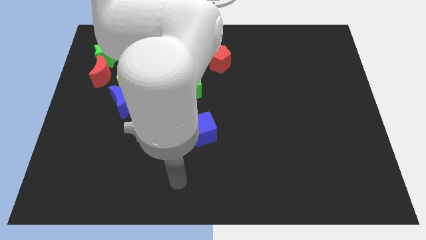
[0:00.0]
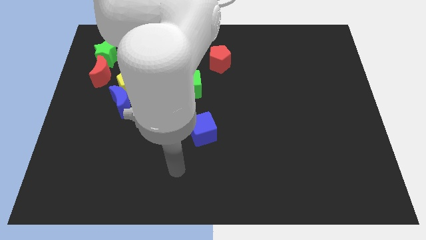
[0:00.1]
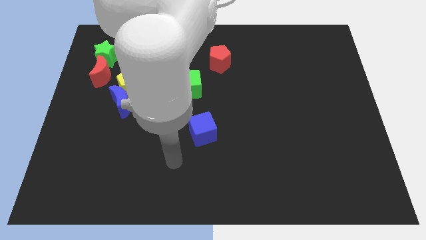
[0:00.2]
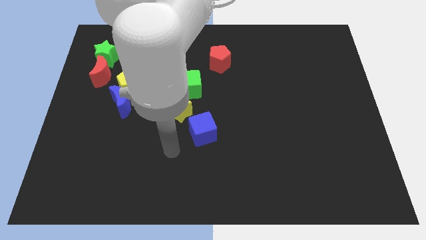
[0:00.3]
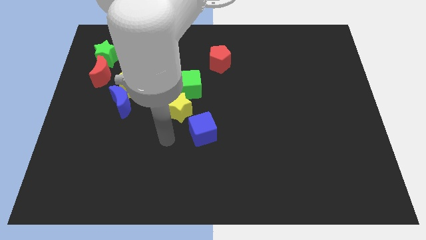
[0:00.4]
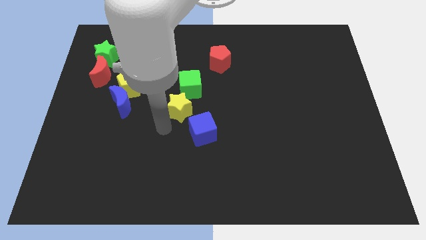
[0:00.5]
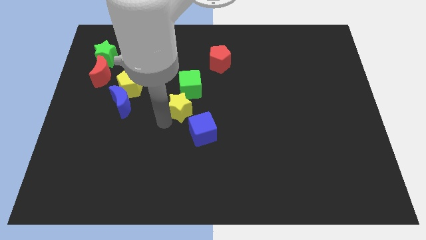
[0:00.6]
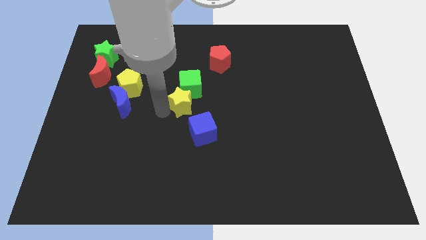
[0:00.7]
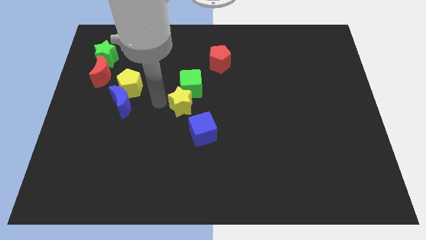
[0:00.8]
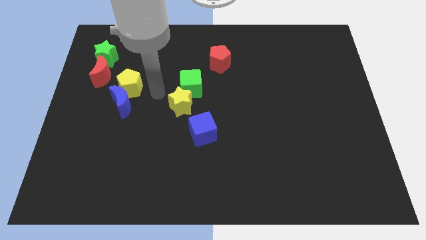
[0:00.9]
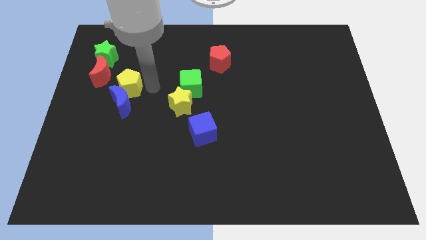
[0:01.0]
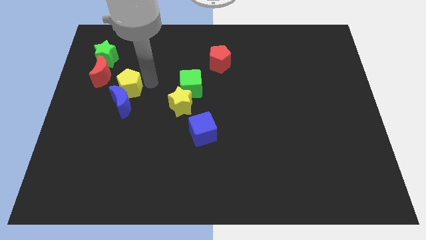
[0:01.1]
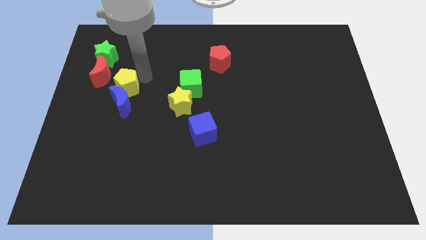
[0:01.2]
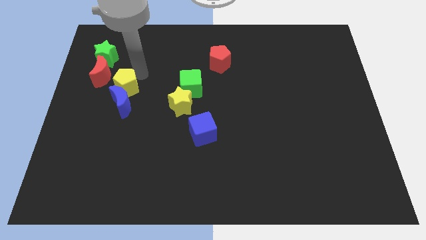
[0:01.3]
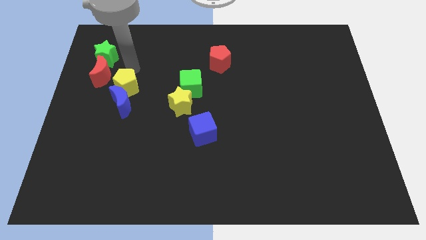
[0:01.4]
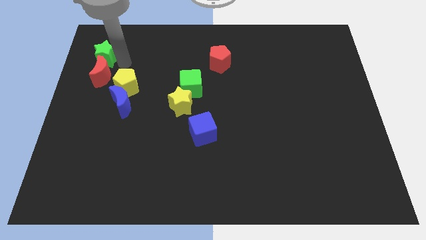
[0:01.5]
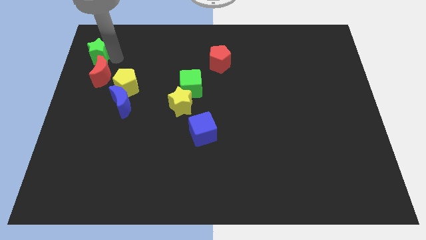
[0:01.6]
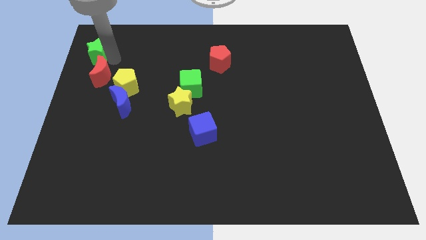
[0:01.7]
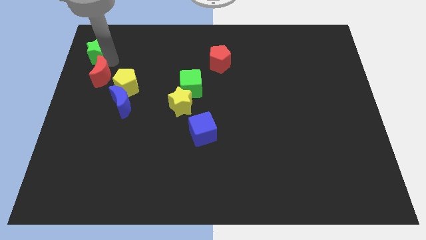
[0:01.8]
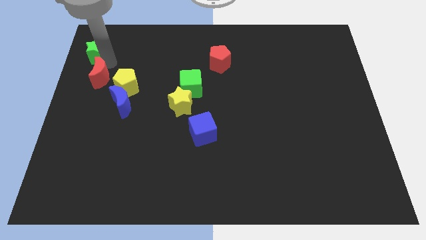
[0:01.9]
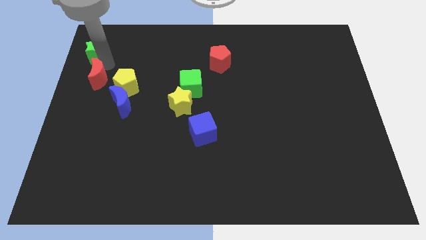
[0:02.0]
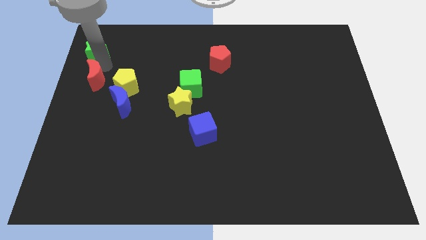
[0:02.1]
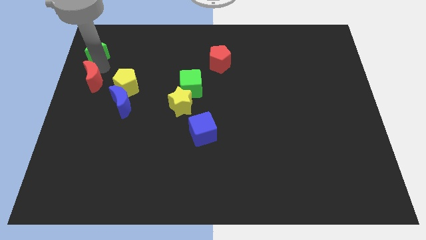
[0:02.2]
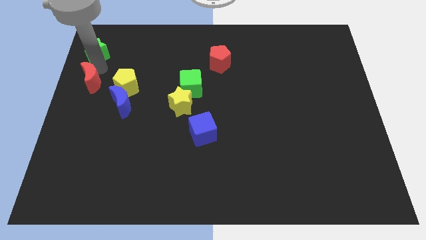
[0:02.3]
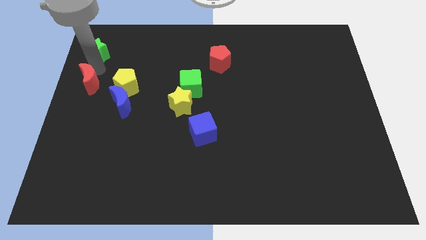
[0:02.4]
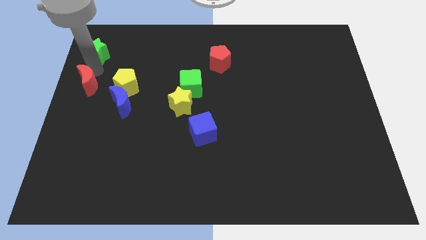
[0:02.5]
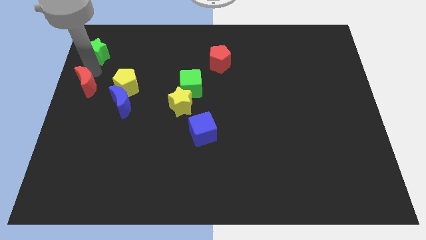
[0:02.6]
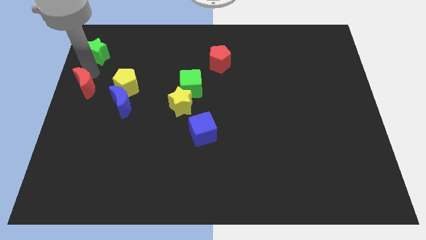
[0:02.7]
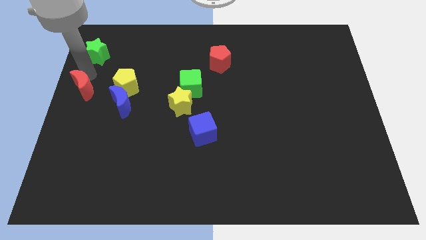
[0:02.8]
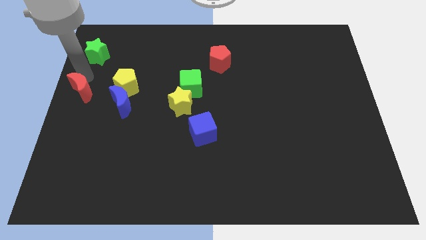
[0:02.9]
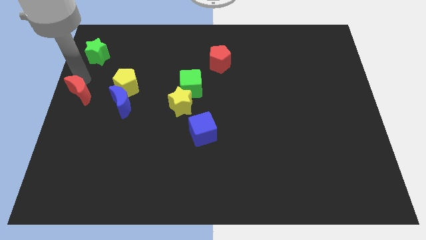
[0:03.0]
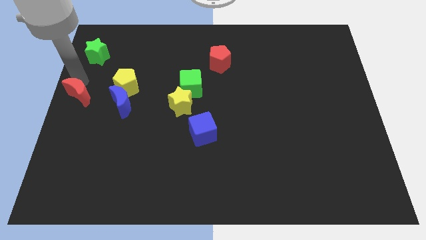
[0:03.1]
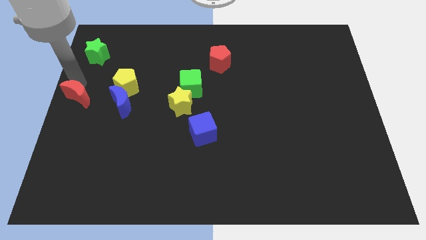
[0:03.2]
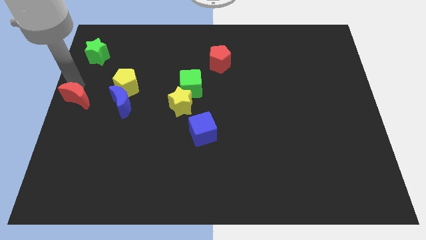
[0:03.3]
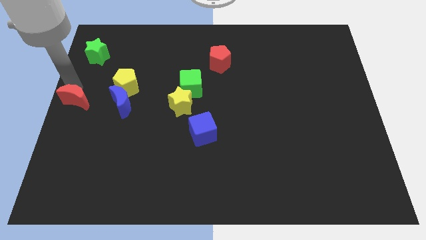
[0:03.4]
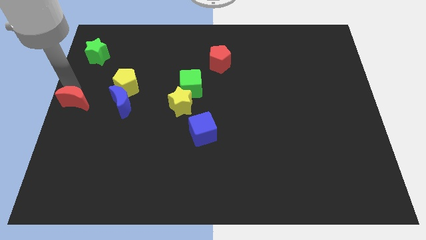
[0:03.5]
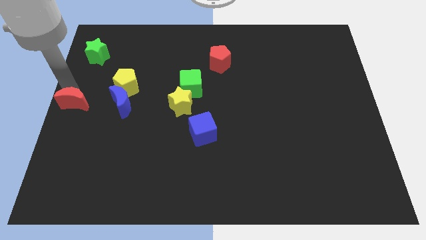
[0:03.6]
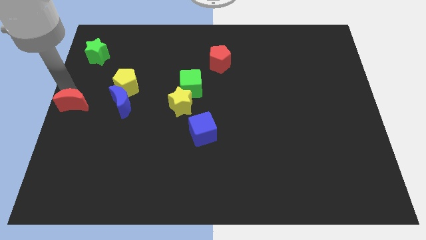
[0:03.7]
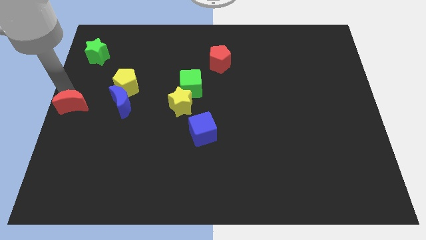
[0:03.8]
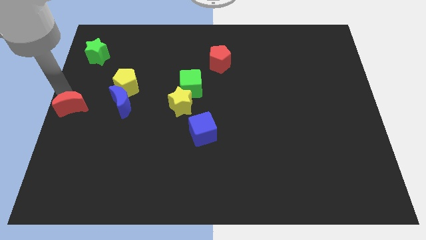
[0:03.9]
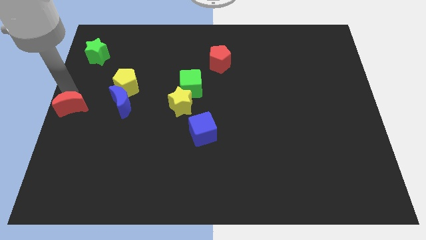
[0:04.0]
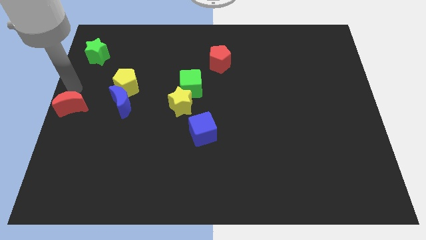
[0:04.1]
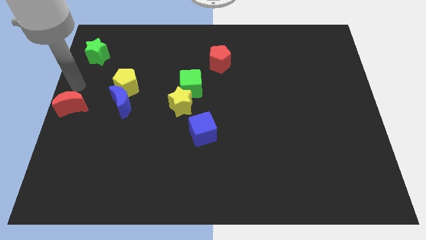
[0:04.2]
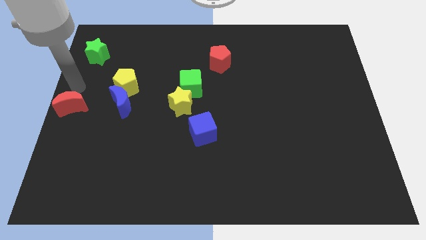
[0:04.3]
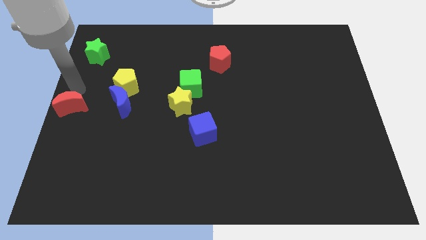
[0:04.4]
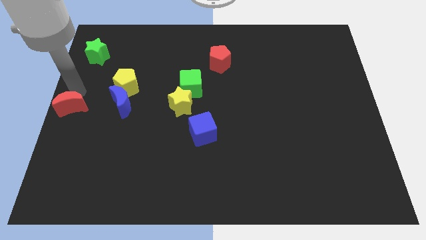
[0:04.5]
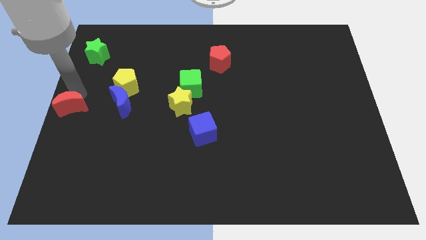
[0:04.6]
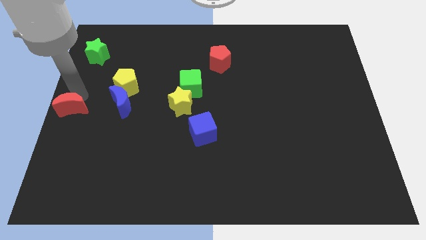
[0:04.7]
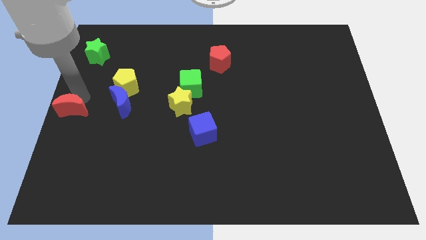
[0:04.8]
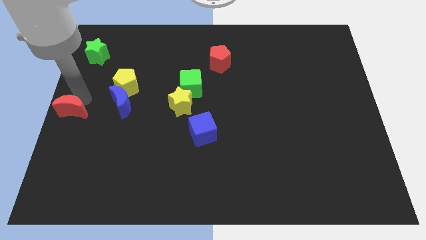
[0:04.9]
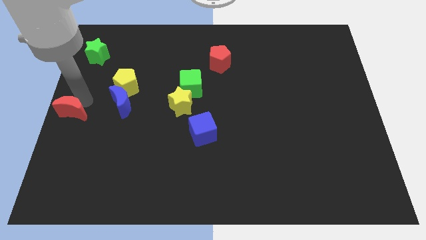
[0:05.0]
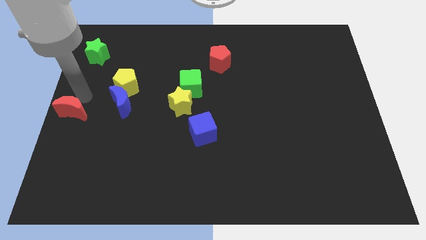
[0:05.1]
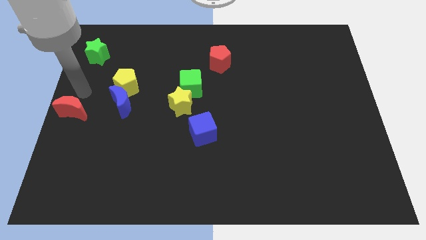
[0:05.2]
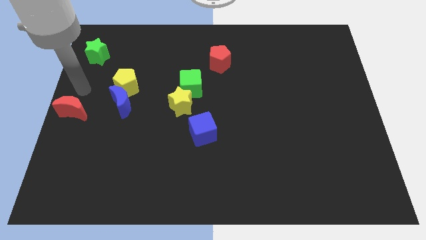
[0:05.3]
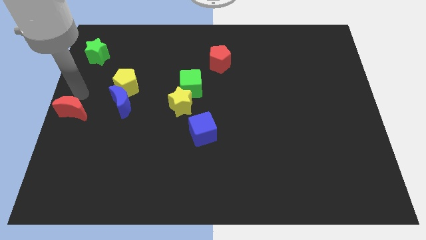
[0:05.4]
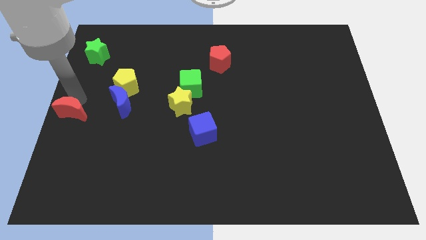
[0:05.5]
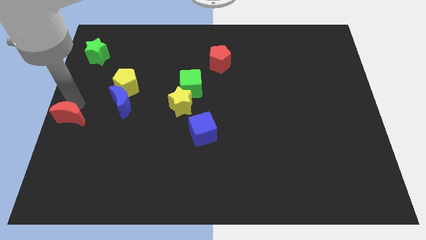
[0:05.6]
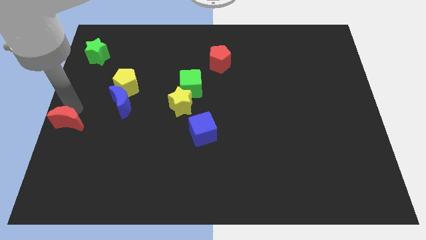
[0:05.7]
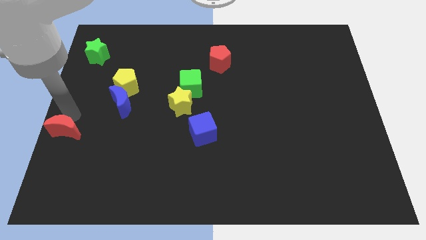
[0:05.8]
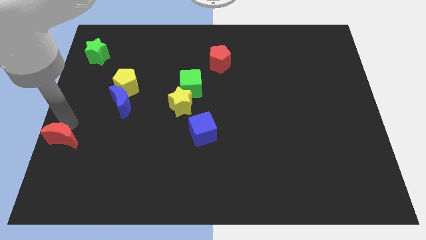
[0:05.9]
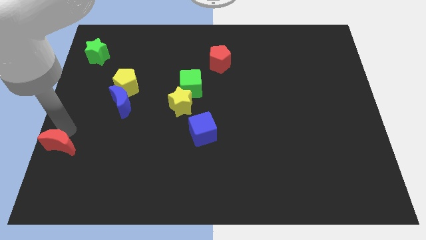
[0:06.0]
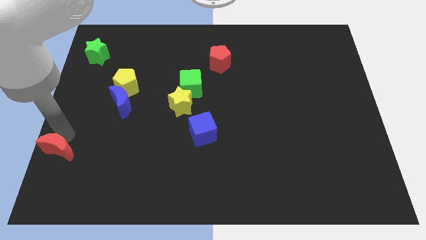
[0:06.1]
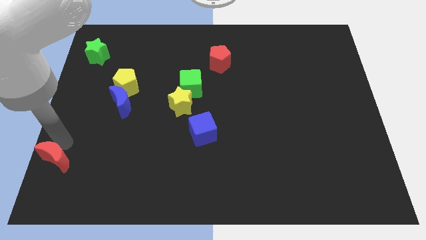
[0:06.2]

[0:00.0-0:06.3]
move the red moon to the bottom left
